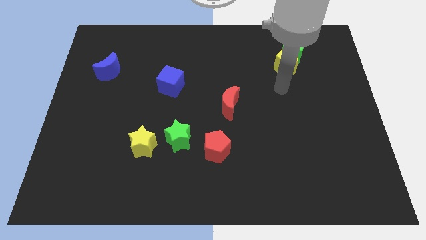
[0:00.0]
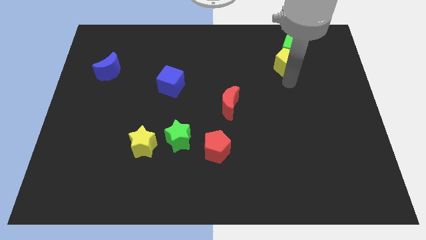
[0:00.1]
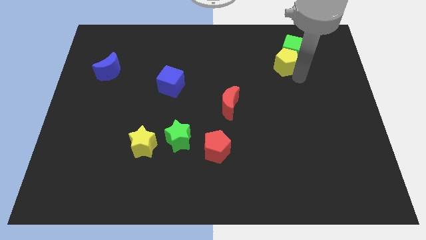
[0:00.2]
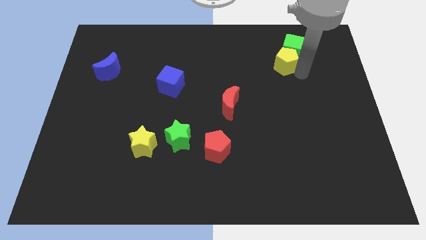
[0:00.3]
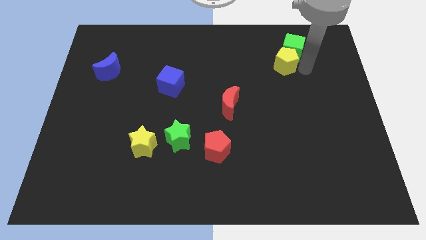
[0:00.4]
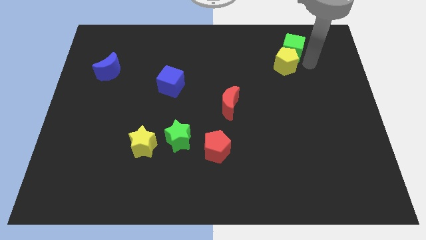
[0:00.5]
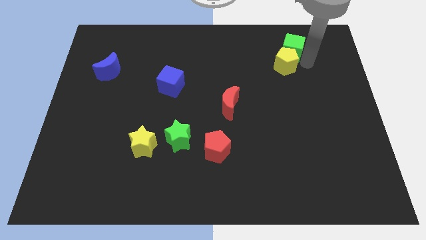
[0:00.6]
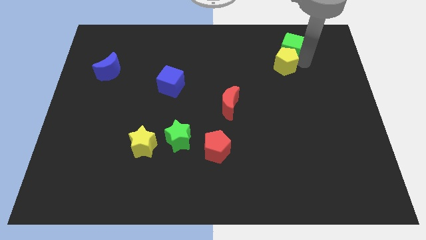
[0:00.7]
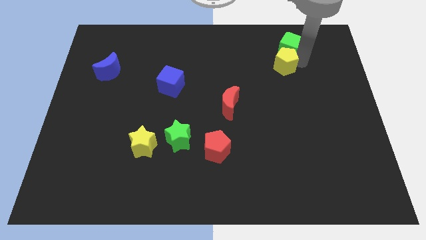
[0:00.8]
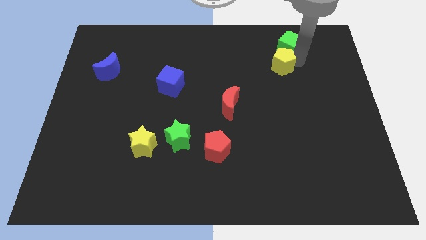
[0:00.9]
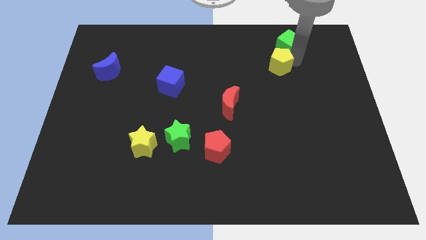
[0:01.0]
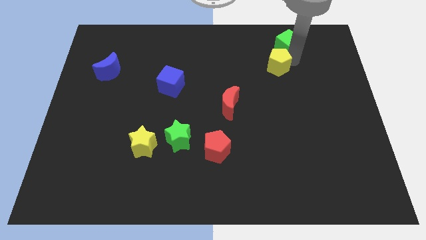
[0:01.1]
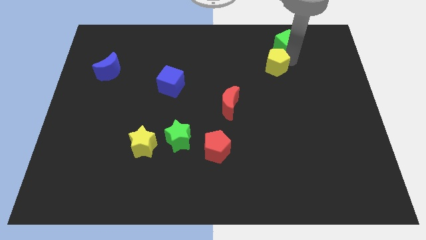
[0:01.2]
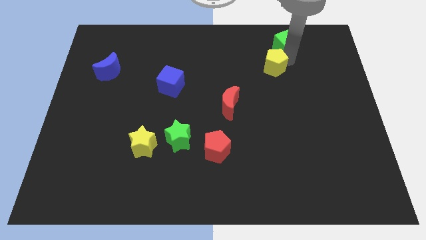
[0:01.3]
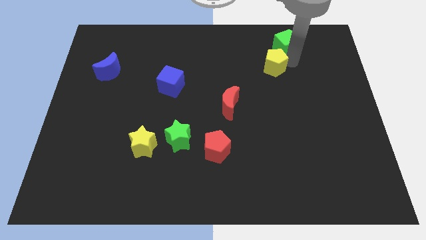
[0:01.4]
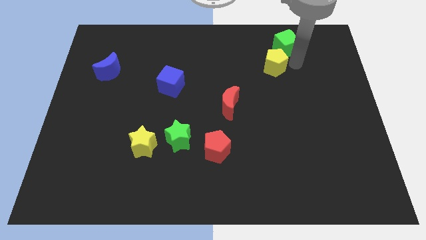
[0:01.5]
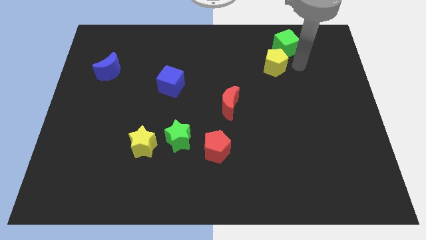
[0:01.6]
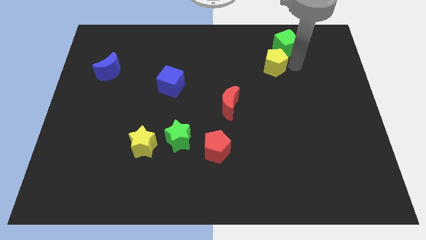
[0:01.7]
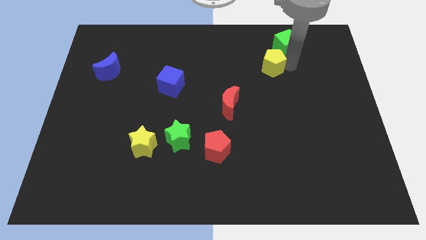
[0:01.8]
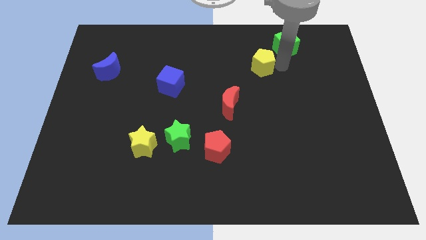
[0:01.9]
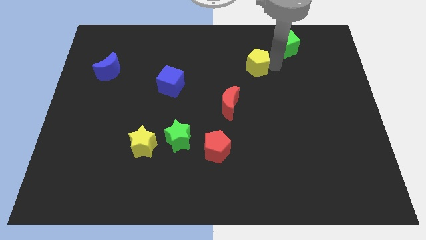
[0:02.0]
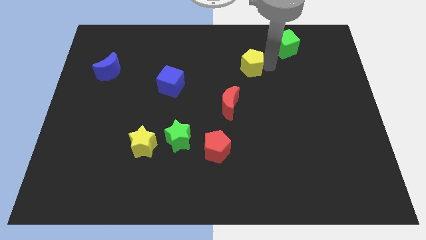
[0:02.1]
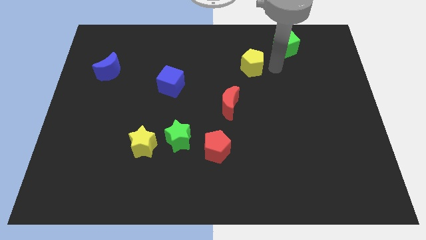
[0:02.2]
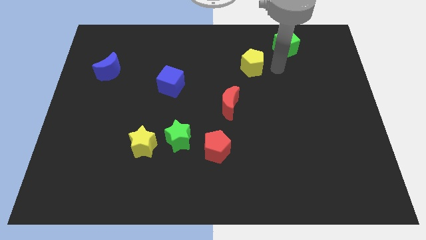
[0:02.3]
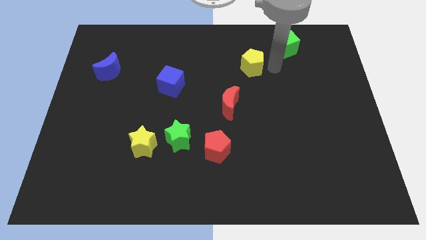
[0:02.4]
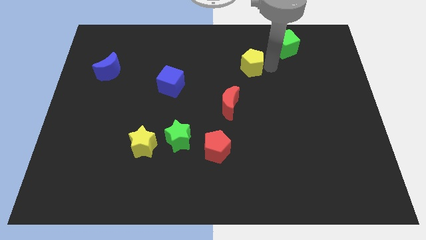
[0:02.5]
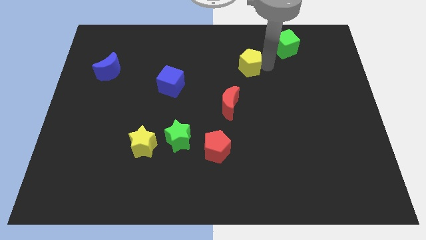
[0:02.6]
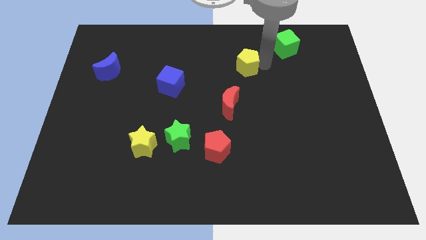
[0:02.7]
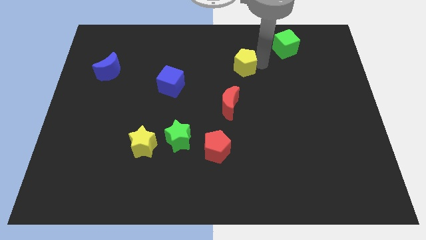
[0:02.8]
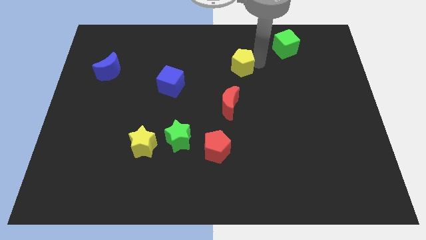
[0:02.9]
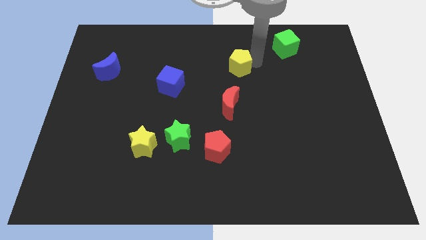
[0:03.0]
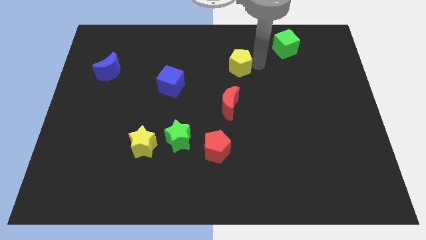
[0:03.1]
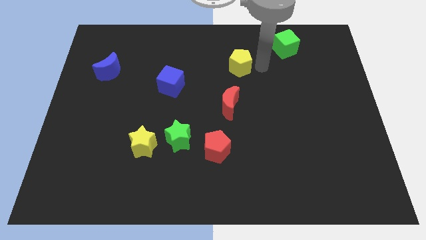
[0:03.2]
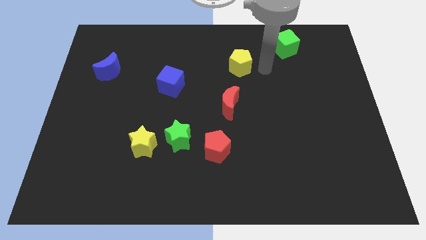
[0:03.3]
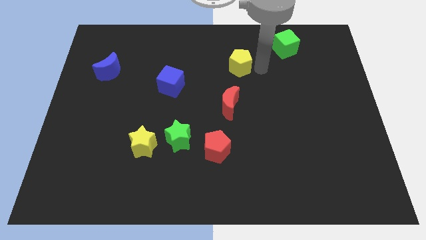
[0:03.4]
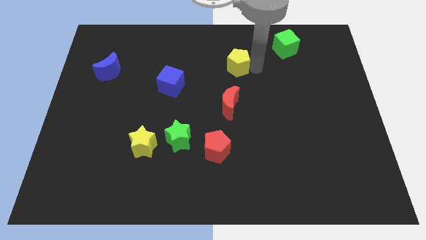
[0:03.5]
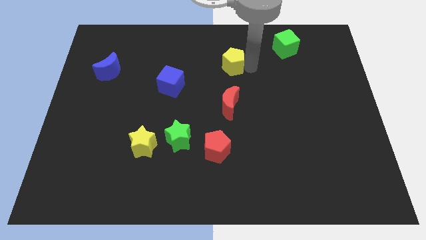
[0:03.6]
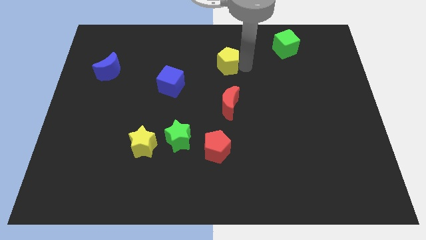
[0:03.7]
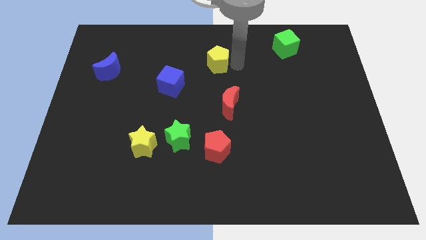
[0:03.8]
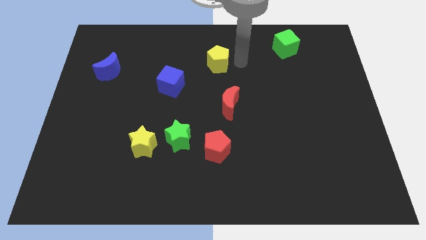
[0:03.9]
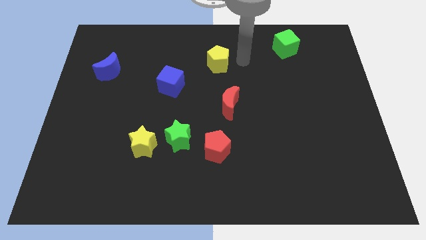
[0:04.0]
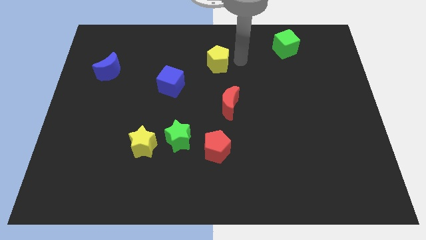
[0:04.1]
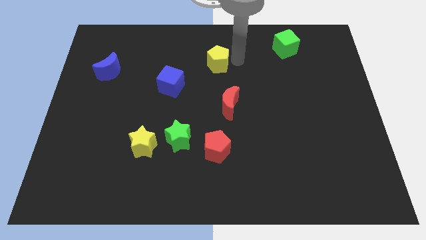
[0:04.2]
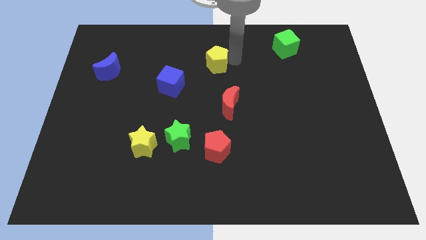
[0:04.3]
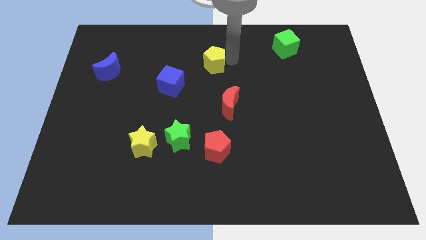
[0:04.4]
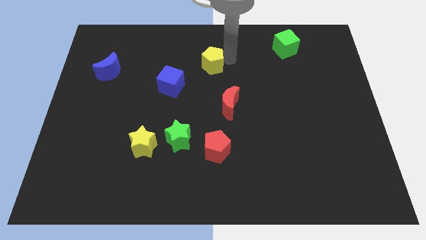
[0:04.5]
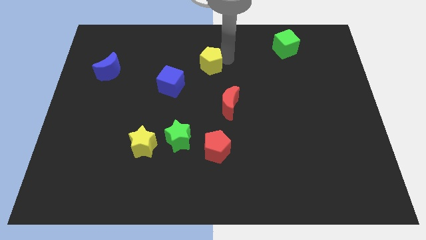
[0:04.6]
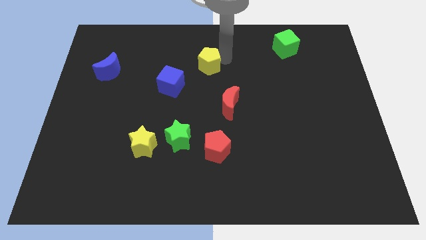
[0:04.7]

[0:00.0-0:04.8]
push the yellow pentagon left

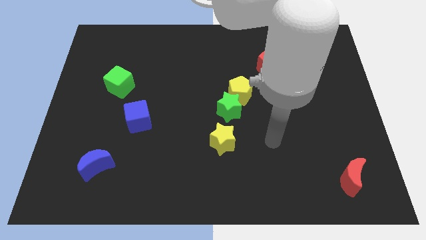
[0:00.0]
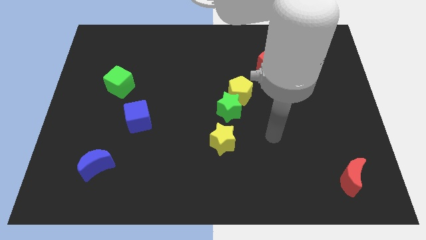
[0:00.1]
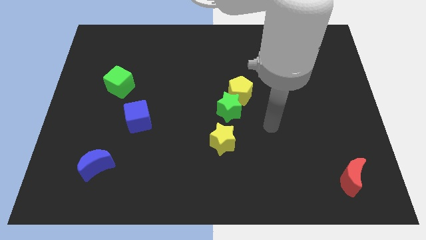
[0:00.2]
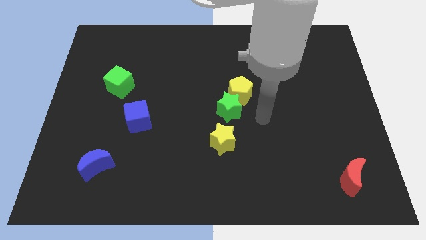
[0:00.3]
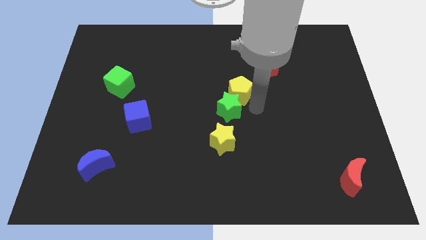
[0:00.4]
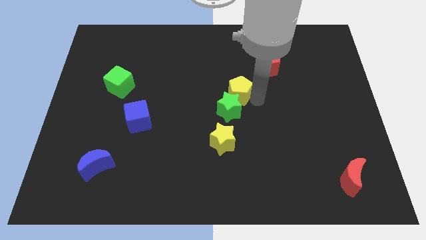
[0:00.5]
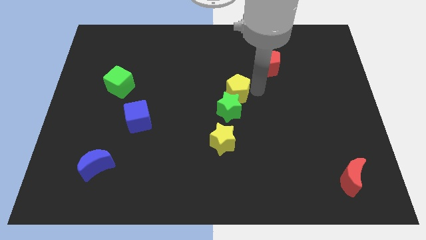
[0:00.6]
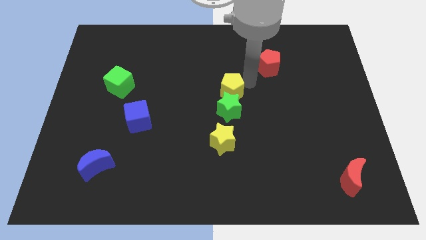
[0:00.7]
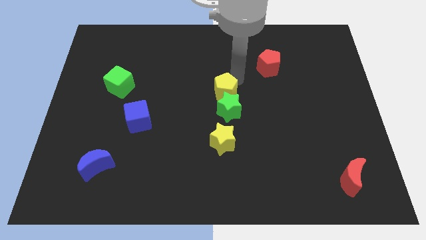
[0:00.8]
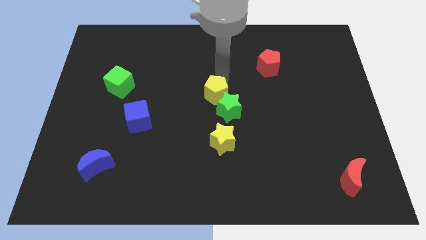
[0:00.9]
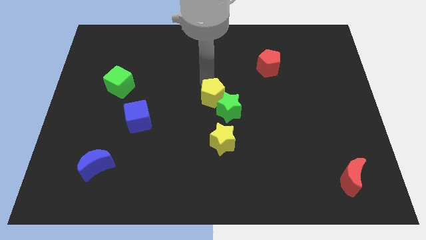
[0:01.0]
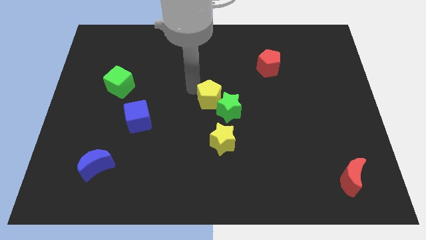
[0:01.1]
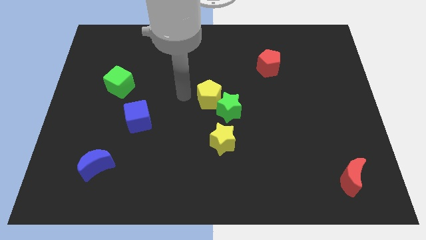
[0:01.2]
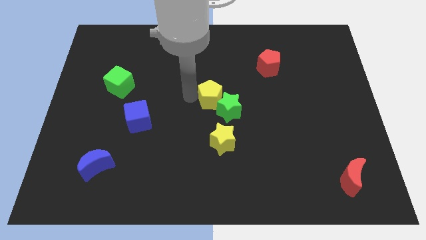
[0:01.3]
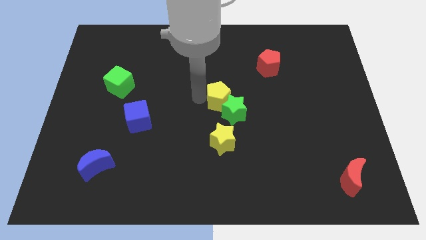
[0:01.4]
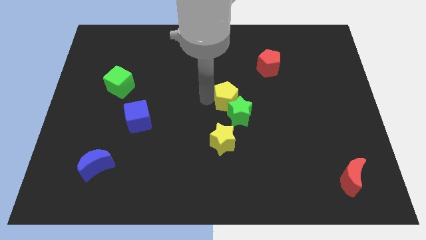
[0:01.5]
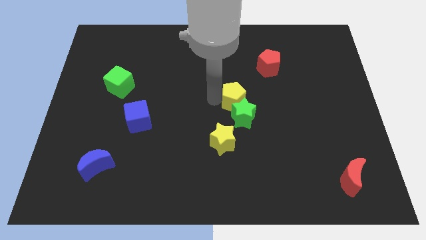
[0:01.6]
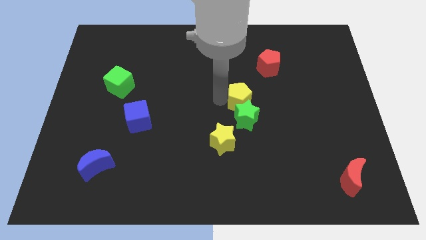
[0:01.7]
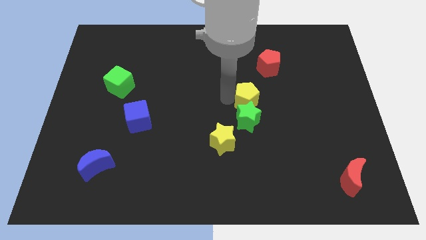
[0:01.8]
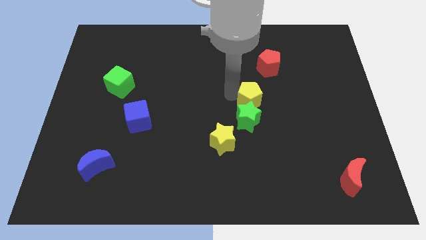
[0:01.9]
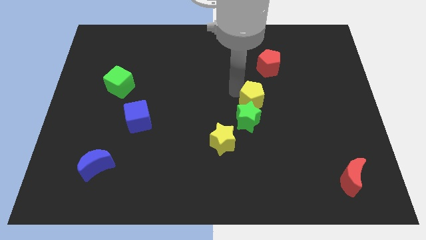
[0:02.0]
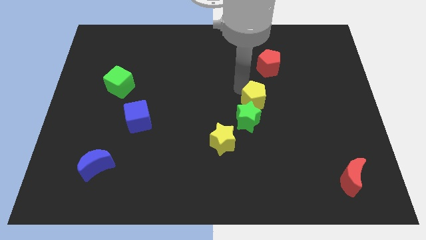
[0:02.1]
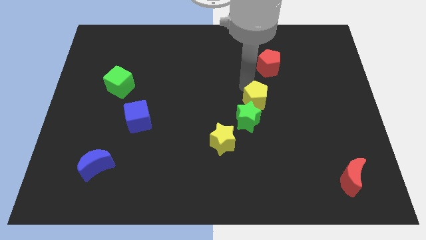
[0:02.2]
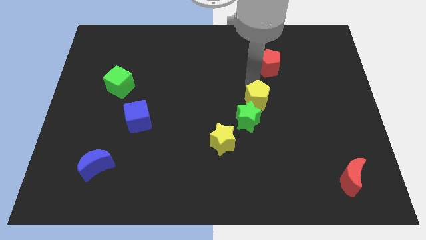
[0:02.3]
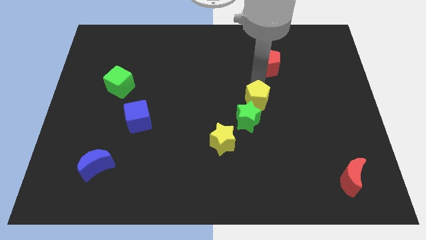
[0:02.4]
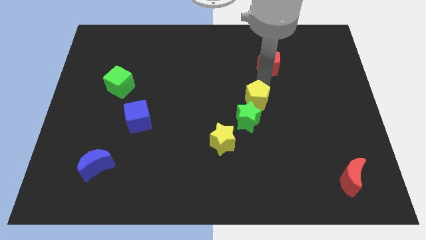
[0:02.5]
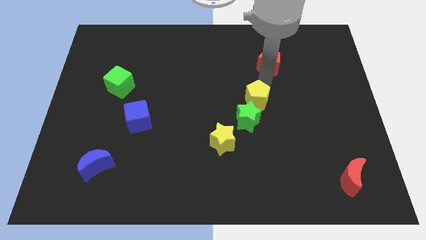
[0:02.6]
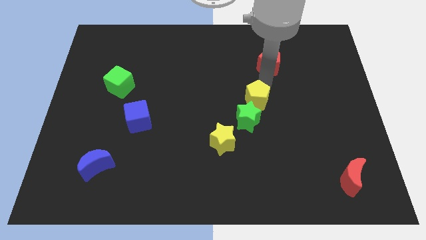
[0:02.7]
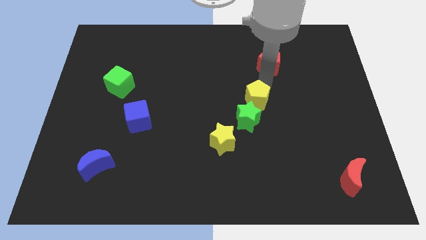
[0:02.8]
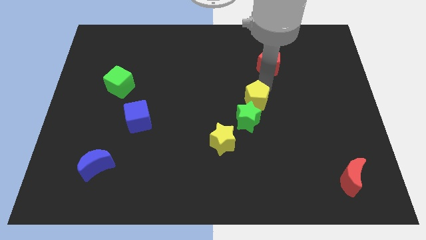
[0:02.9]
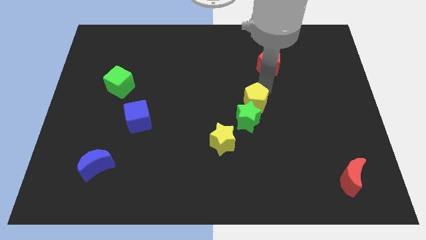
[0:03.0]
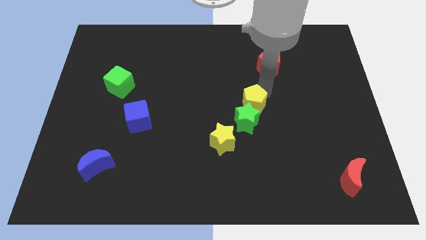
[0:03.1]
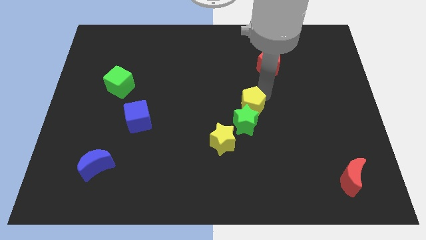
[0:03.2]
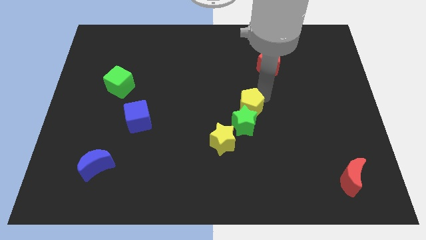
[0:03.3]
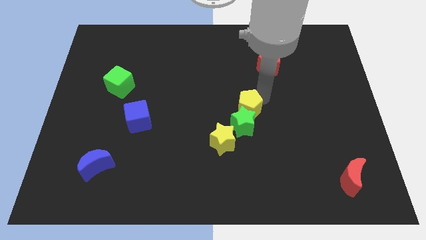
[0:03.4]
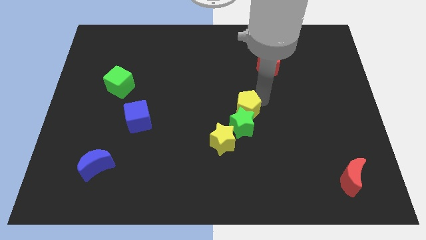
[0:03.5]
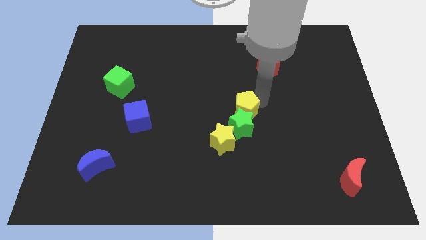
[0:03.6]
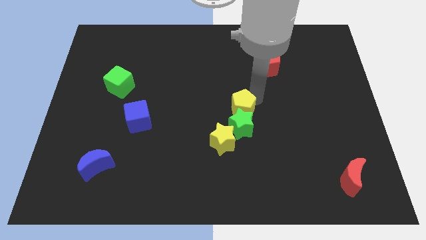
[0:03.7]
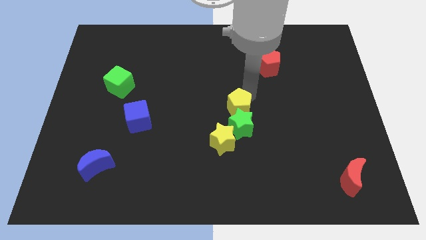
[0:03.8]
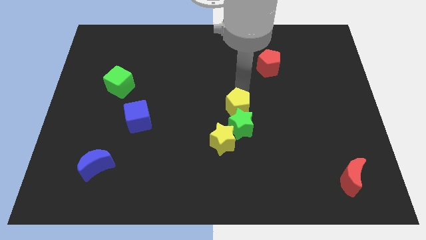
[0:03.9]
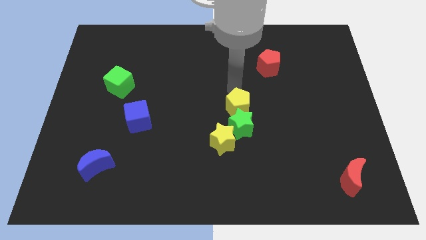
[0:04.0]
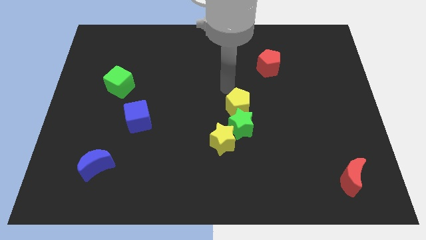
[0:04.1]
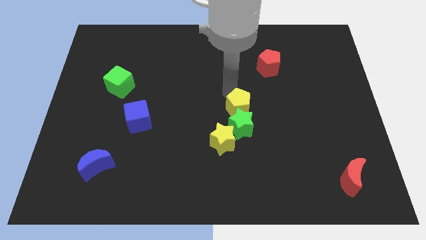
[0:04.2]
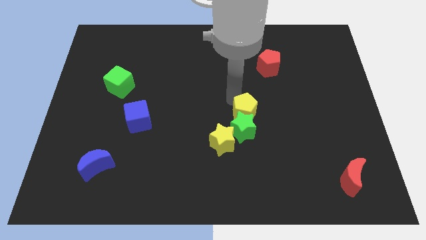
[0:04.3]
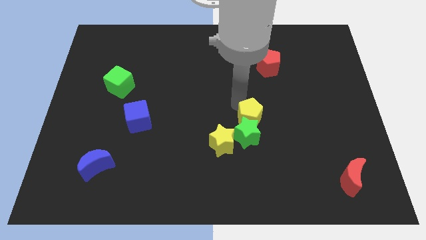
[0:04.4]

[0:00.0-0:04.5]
slide the yellow pentagon slightly downwards
